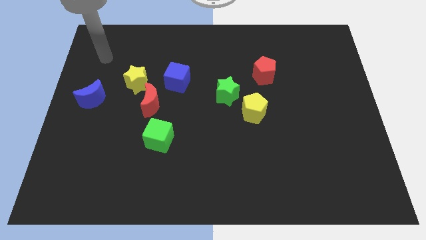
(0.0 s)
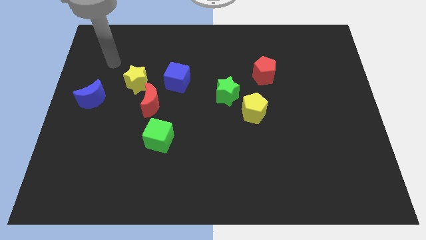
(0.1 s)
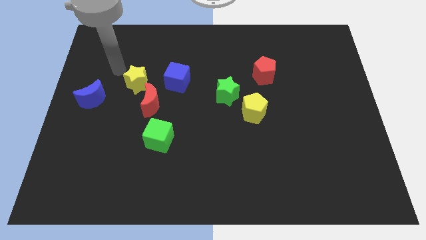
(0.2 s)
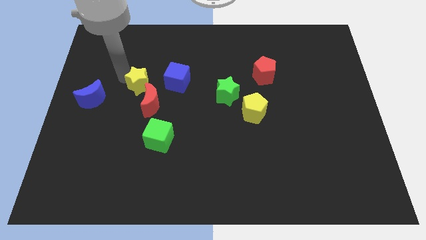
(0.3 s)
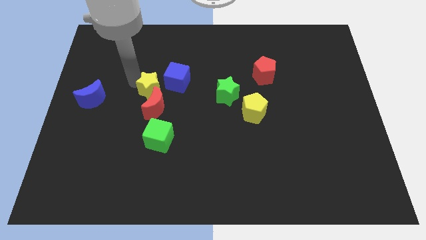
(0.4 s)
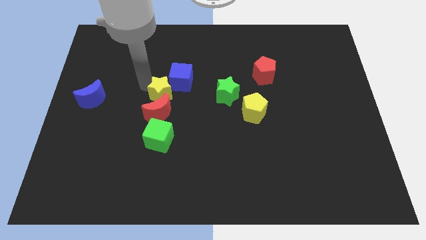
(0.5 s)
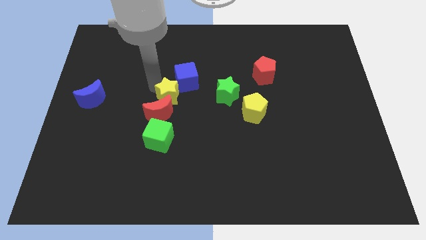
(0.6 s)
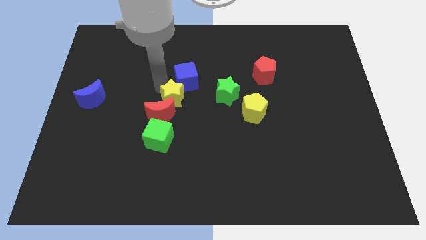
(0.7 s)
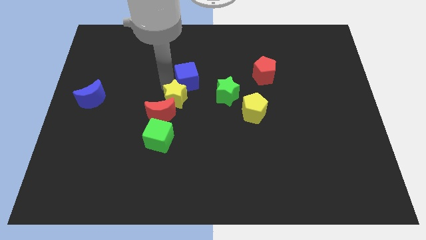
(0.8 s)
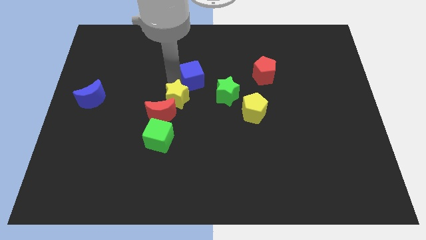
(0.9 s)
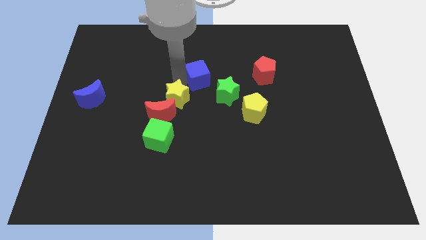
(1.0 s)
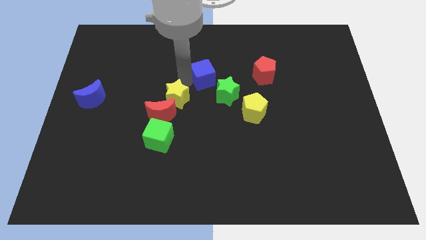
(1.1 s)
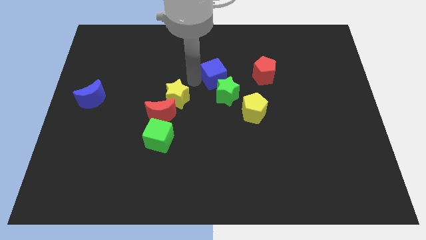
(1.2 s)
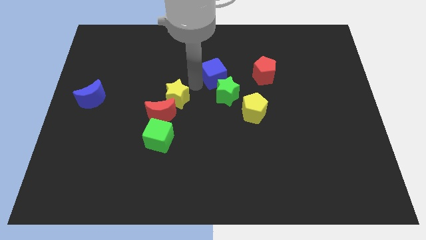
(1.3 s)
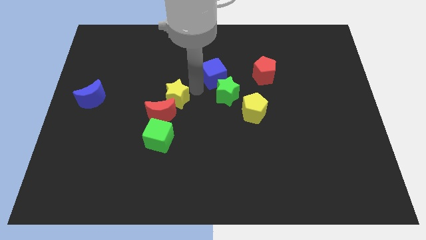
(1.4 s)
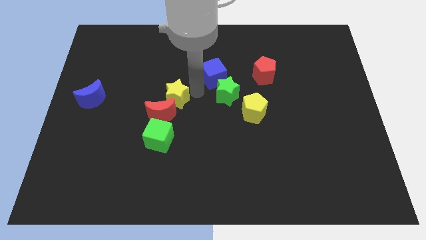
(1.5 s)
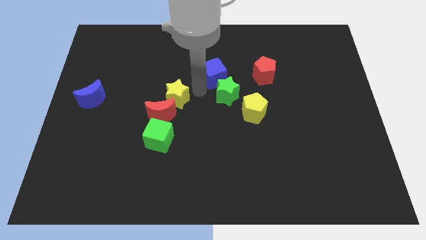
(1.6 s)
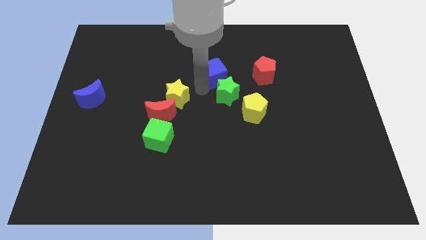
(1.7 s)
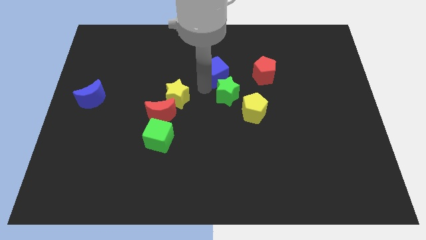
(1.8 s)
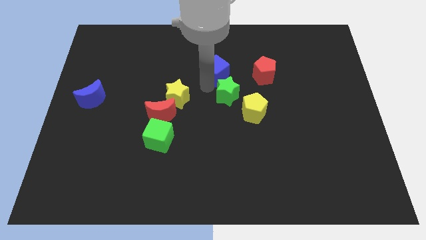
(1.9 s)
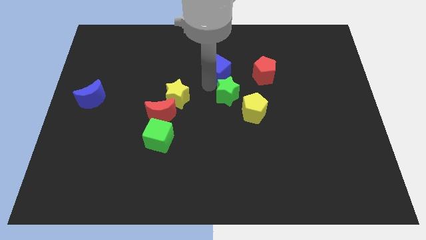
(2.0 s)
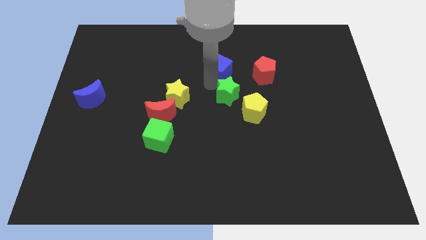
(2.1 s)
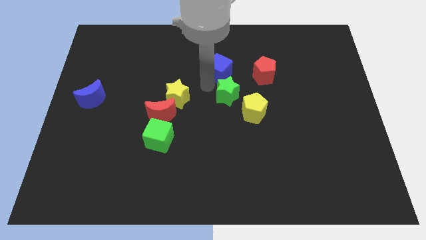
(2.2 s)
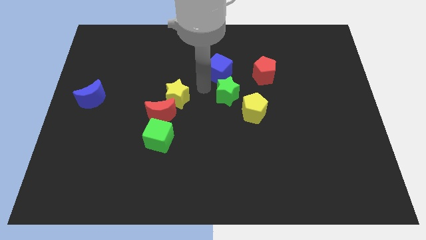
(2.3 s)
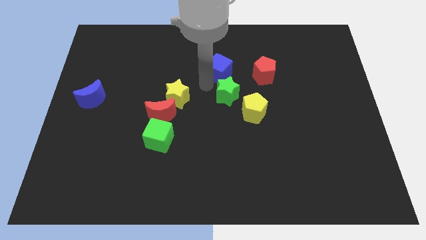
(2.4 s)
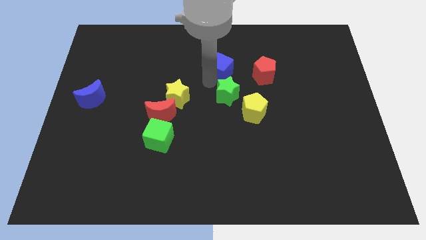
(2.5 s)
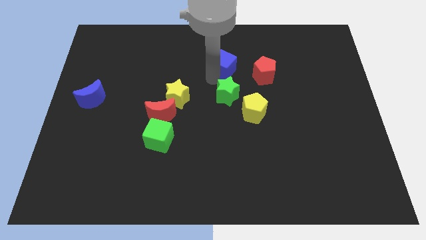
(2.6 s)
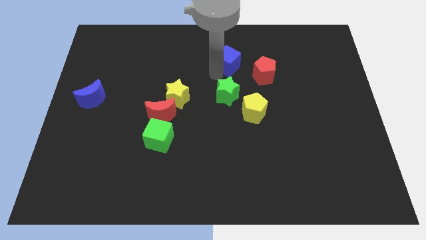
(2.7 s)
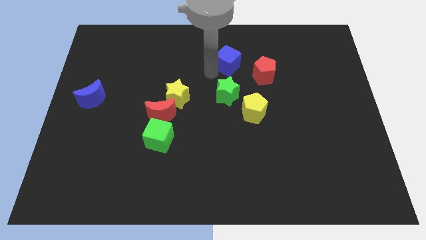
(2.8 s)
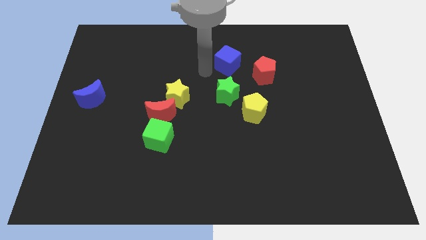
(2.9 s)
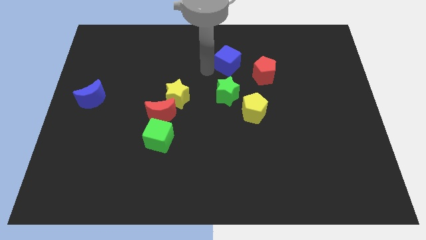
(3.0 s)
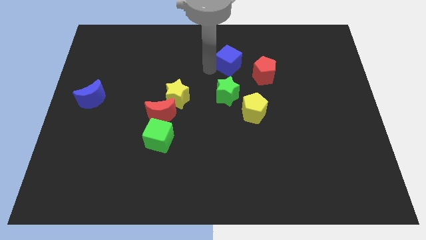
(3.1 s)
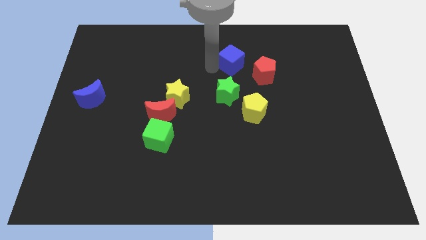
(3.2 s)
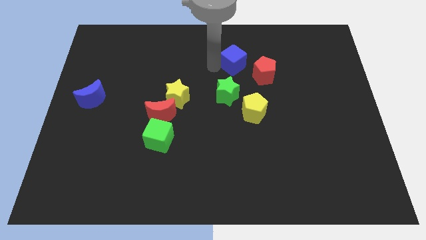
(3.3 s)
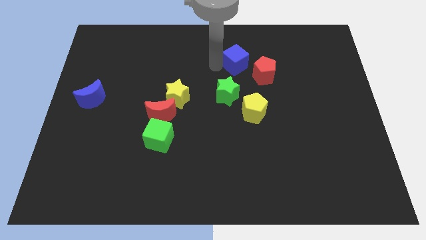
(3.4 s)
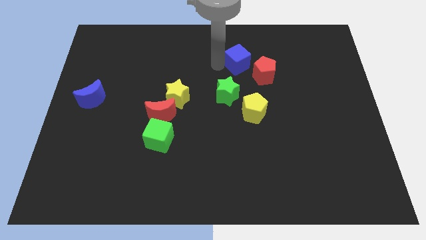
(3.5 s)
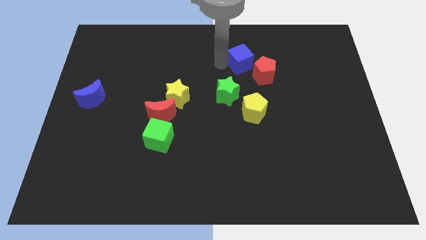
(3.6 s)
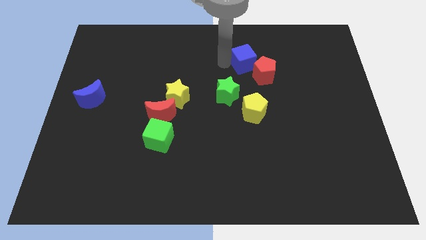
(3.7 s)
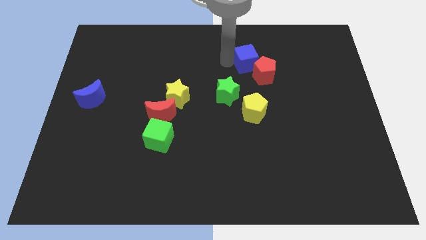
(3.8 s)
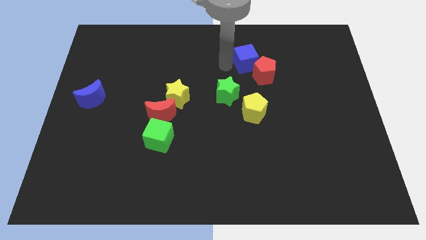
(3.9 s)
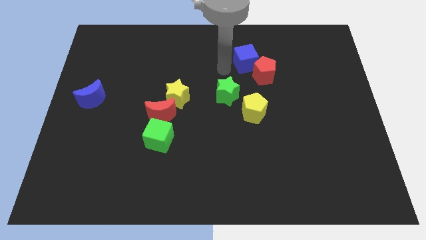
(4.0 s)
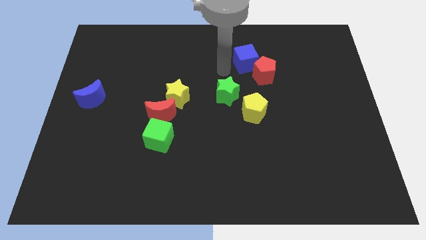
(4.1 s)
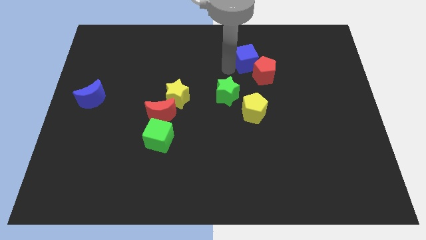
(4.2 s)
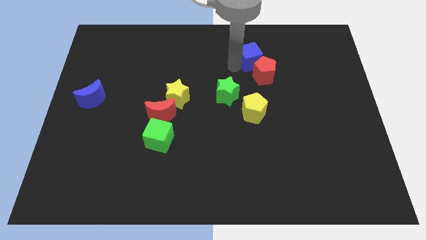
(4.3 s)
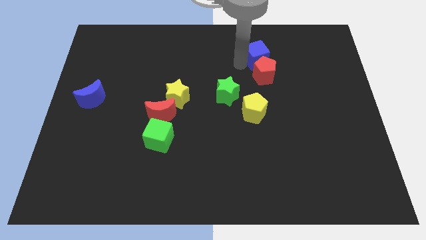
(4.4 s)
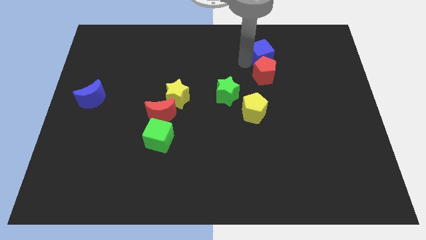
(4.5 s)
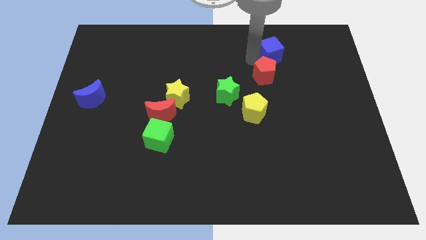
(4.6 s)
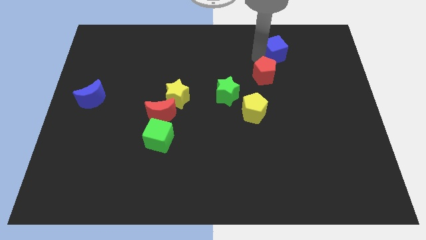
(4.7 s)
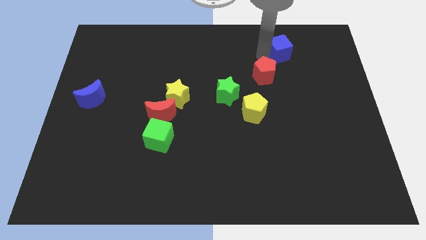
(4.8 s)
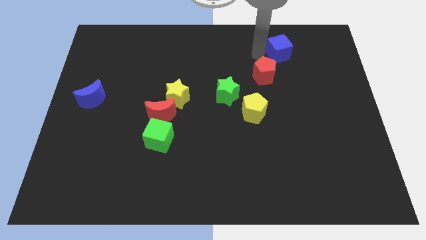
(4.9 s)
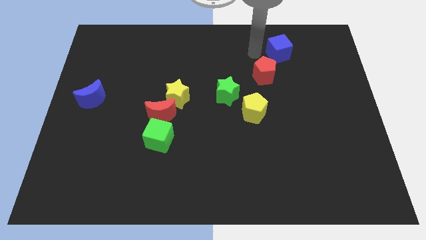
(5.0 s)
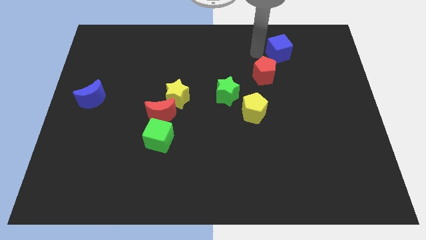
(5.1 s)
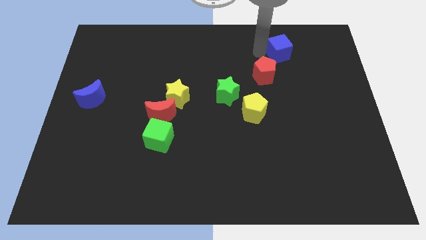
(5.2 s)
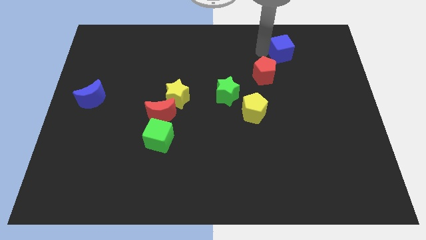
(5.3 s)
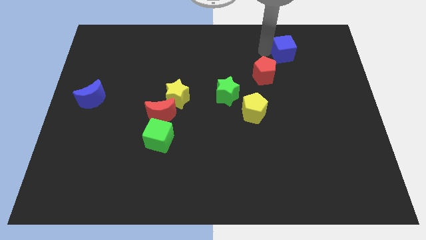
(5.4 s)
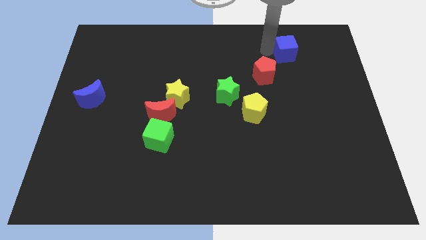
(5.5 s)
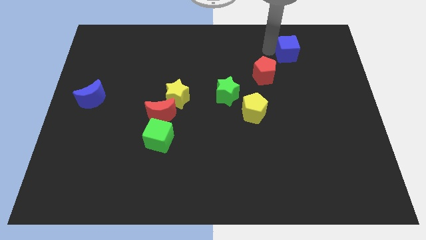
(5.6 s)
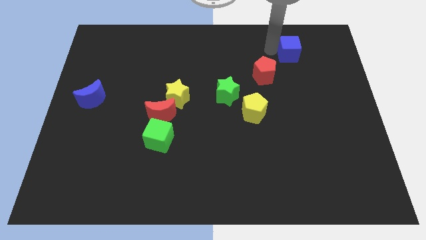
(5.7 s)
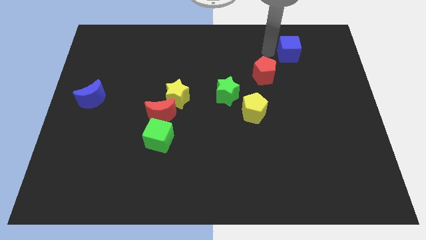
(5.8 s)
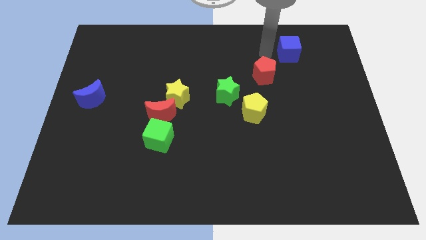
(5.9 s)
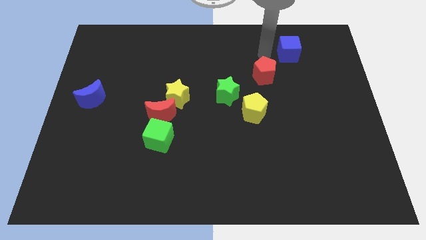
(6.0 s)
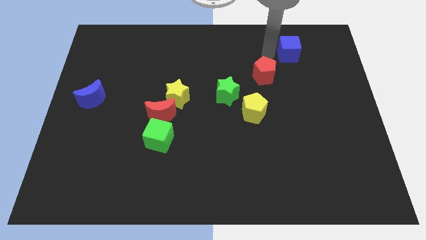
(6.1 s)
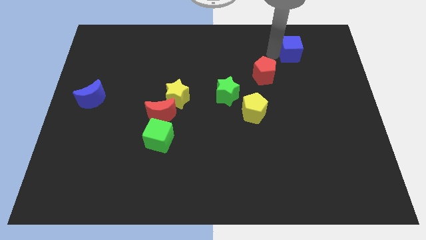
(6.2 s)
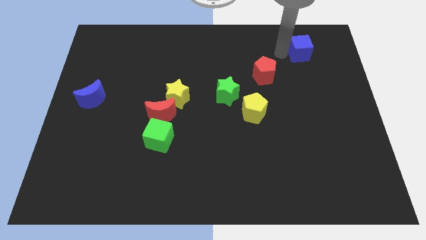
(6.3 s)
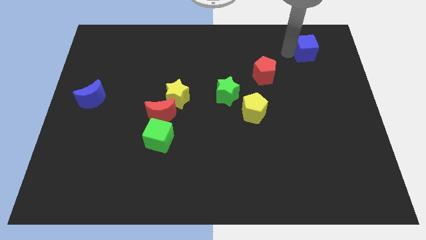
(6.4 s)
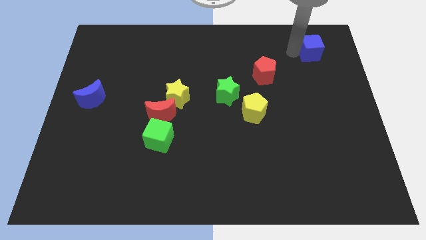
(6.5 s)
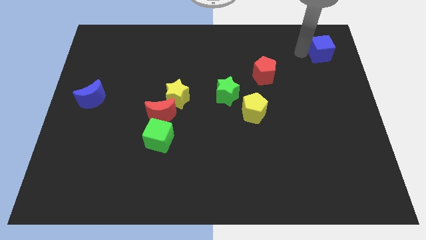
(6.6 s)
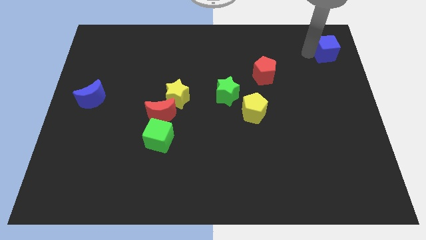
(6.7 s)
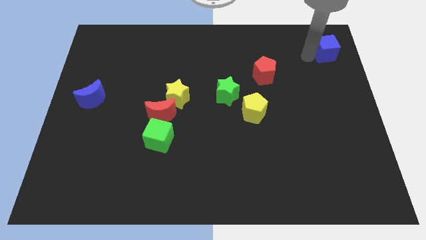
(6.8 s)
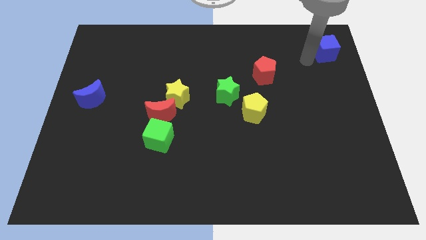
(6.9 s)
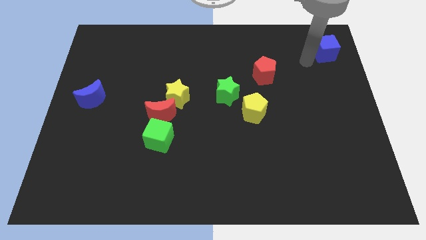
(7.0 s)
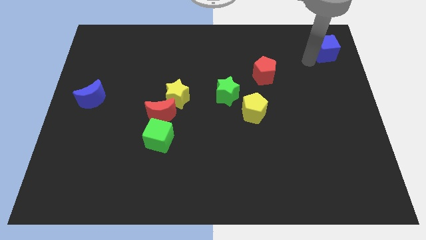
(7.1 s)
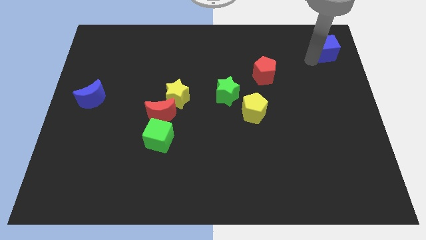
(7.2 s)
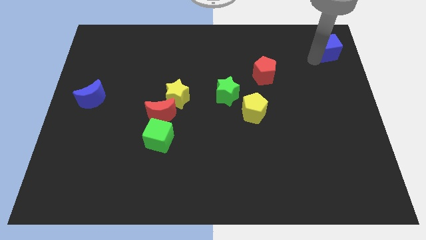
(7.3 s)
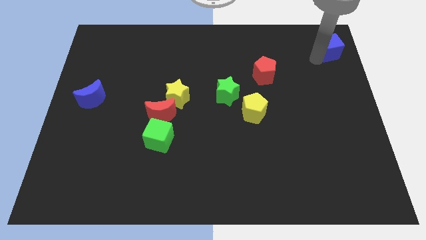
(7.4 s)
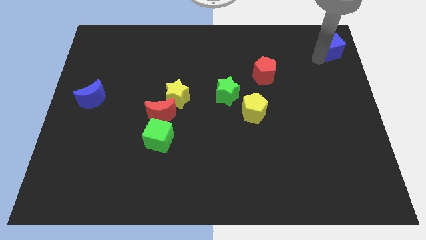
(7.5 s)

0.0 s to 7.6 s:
put the blue cube to the top right corner
